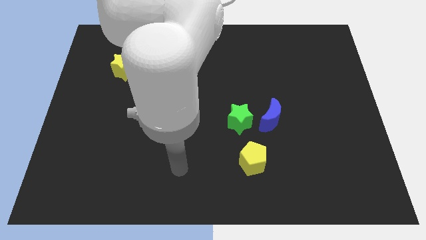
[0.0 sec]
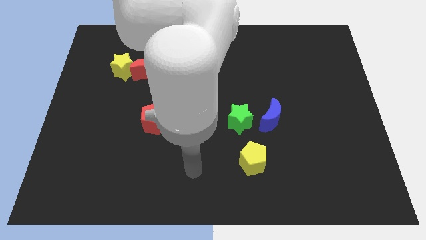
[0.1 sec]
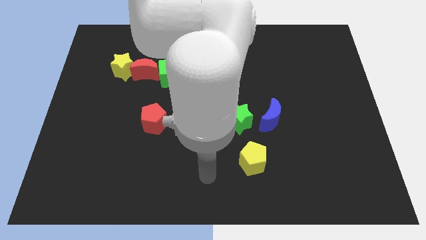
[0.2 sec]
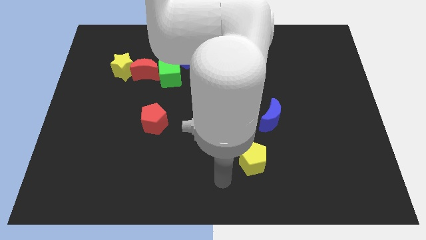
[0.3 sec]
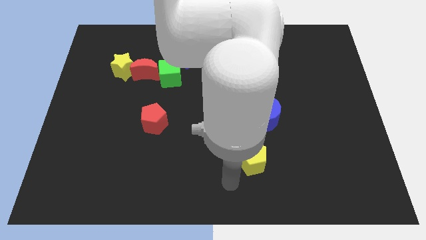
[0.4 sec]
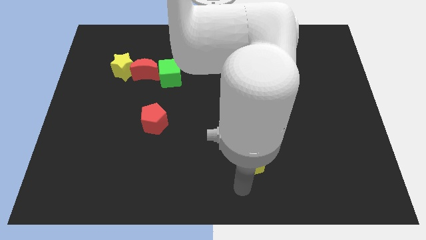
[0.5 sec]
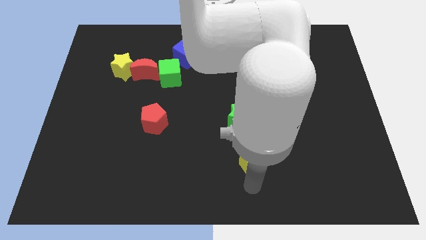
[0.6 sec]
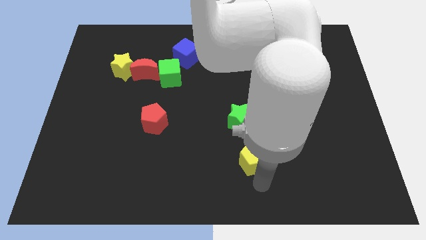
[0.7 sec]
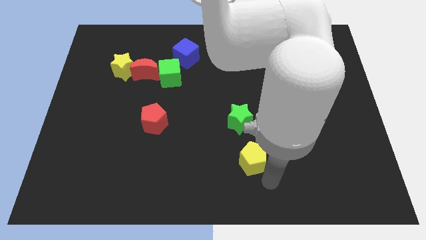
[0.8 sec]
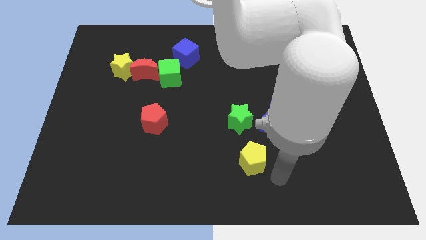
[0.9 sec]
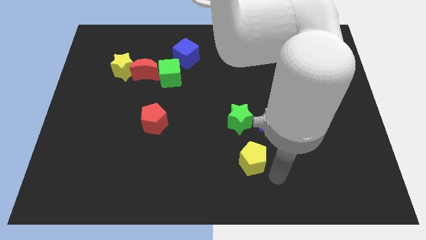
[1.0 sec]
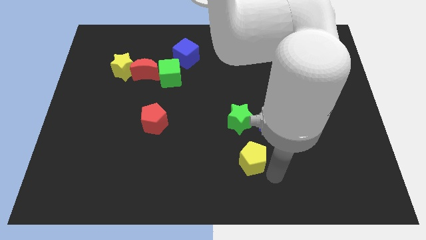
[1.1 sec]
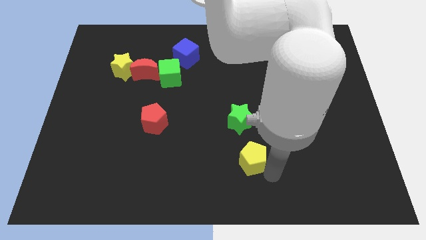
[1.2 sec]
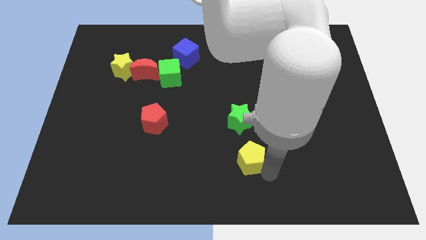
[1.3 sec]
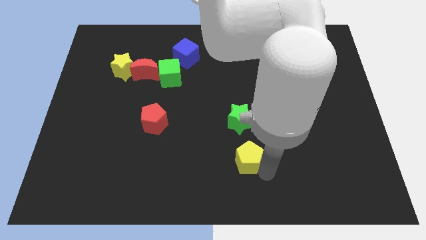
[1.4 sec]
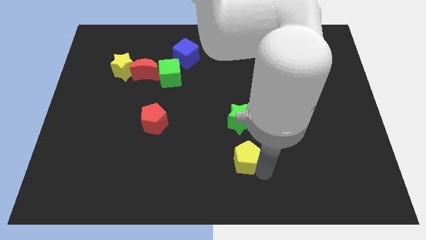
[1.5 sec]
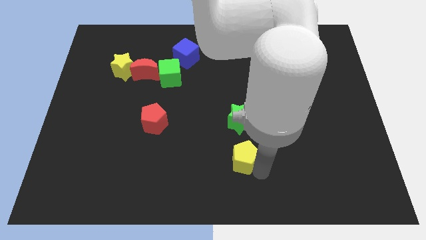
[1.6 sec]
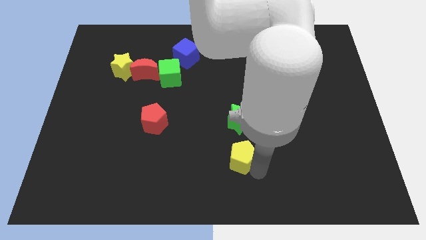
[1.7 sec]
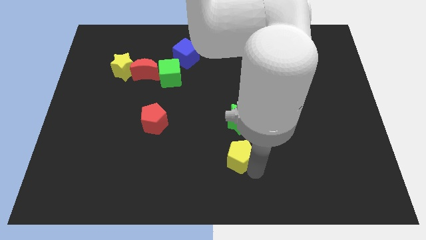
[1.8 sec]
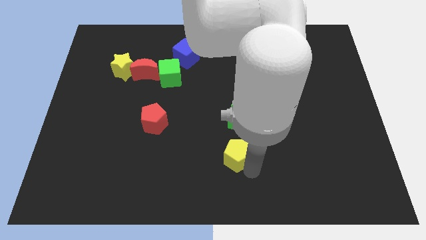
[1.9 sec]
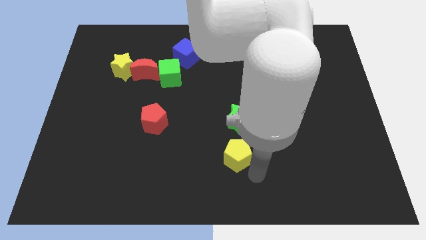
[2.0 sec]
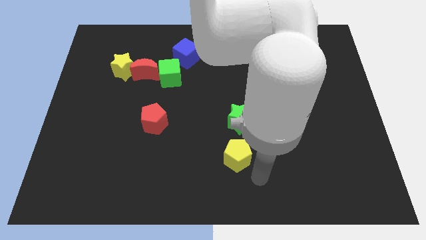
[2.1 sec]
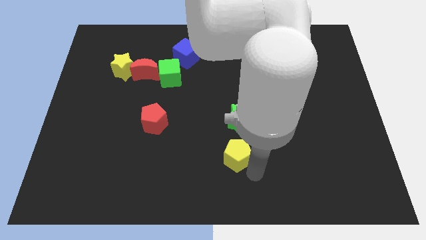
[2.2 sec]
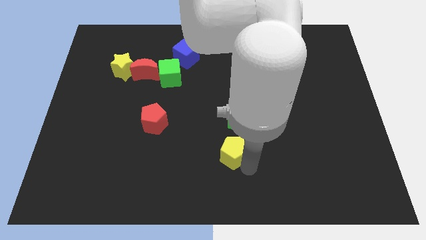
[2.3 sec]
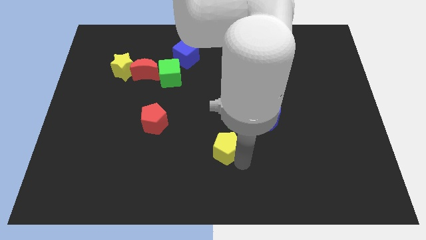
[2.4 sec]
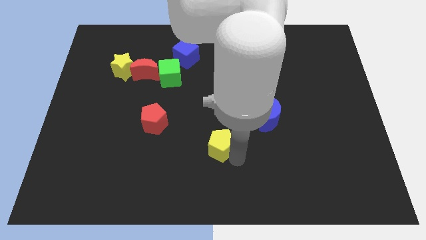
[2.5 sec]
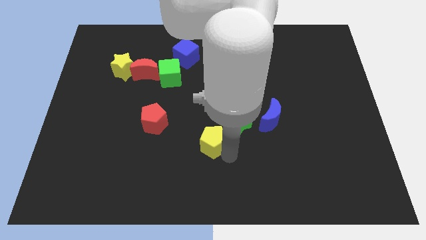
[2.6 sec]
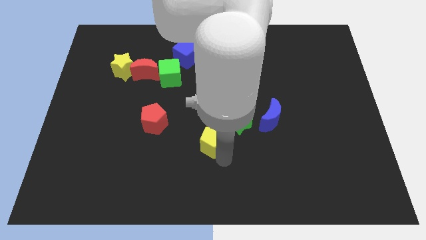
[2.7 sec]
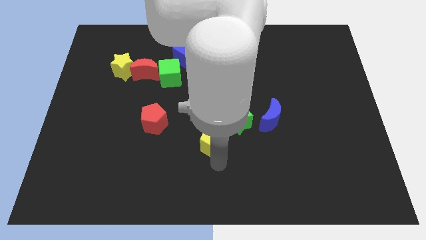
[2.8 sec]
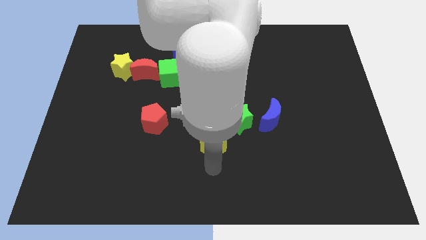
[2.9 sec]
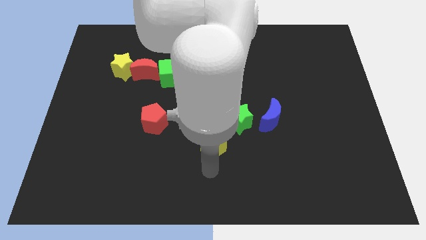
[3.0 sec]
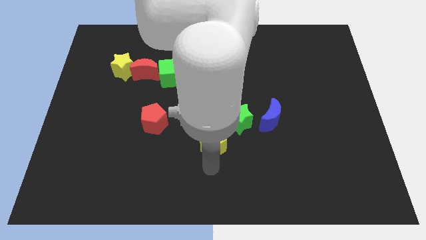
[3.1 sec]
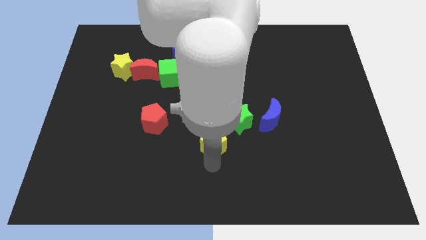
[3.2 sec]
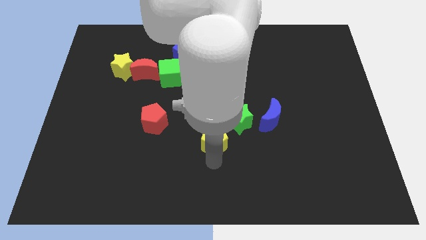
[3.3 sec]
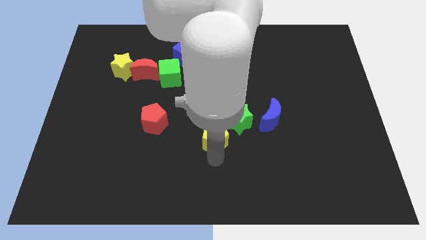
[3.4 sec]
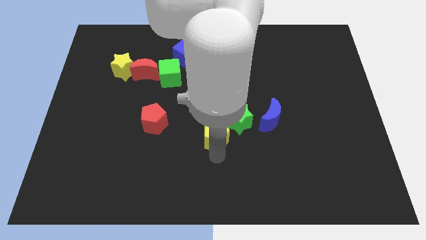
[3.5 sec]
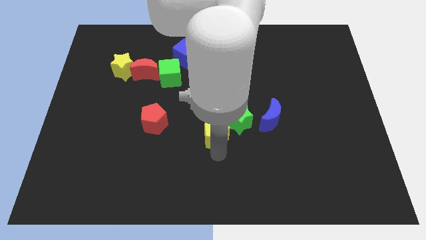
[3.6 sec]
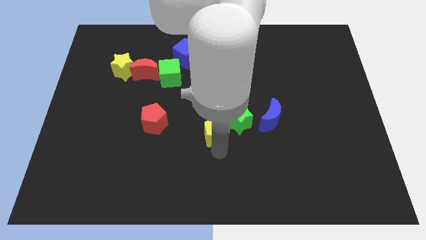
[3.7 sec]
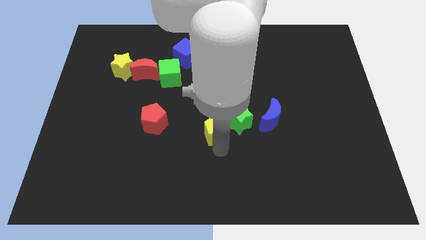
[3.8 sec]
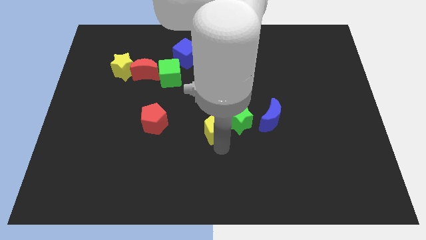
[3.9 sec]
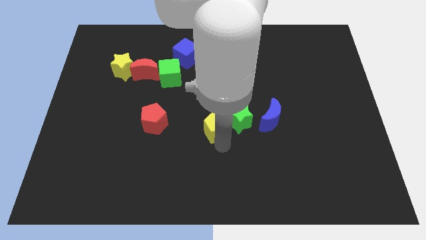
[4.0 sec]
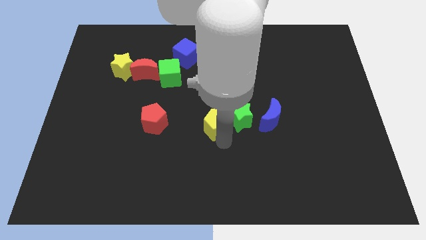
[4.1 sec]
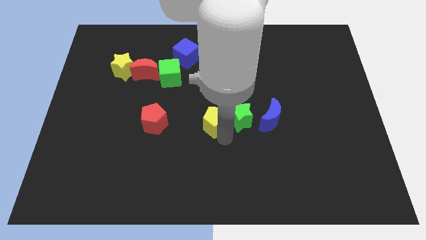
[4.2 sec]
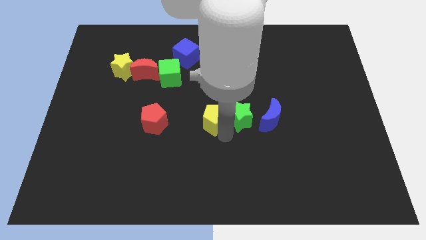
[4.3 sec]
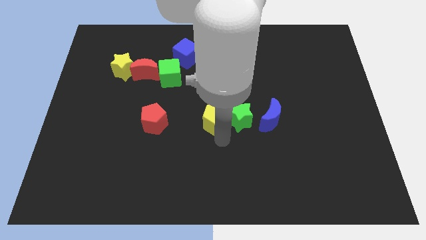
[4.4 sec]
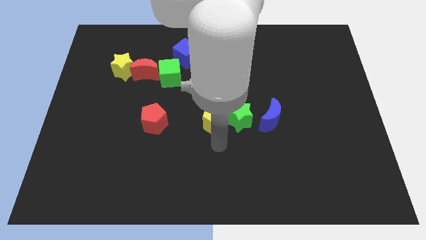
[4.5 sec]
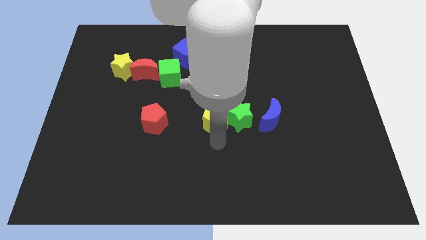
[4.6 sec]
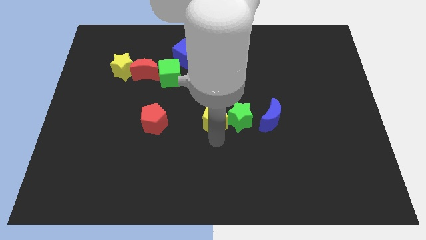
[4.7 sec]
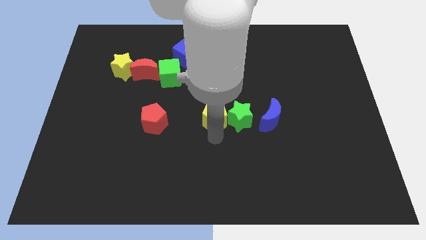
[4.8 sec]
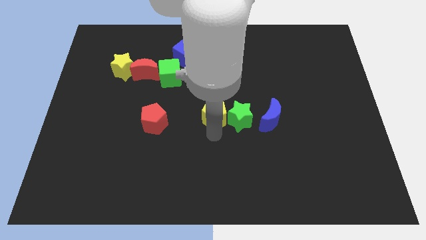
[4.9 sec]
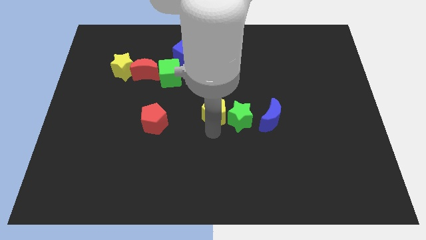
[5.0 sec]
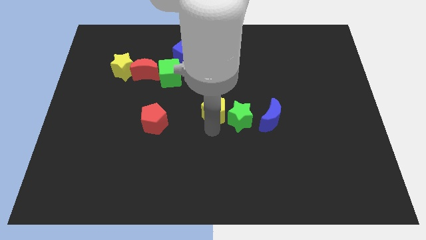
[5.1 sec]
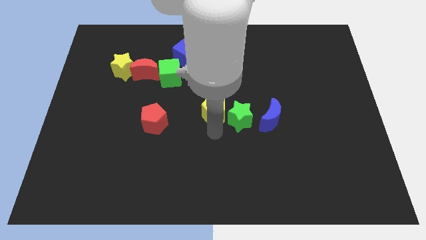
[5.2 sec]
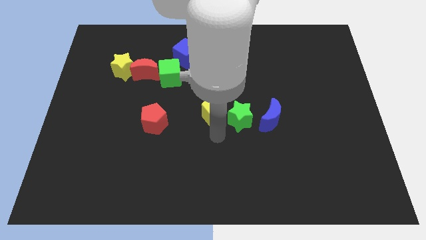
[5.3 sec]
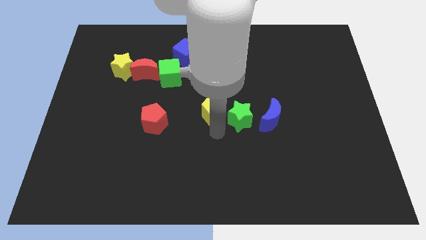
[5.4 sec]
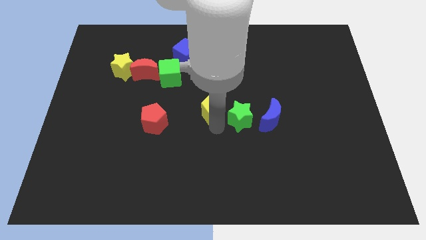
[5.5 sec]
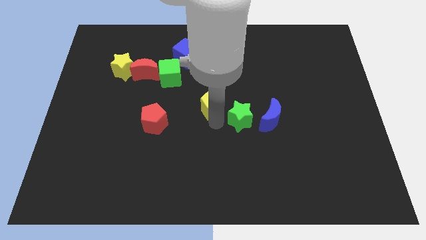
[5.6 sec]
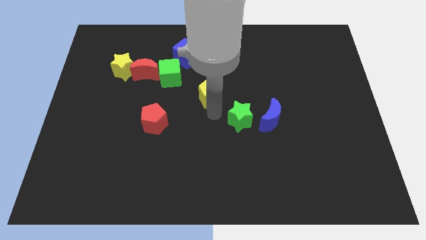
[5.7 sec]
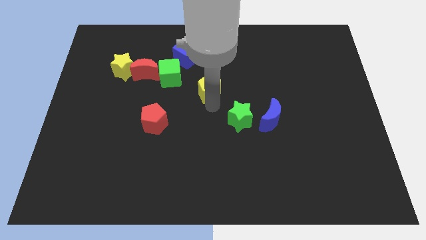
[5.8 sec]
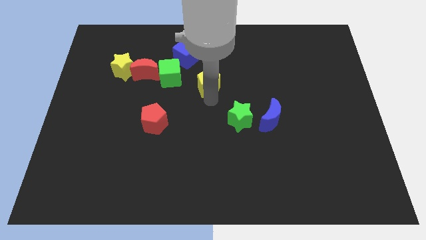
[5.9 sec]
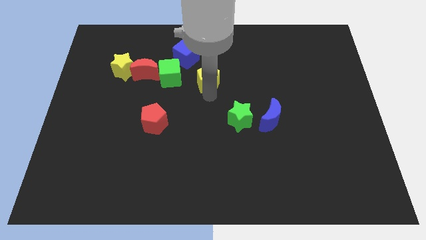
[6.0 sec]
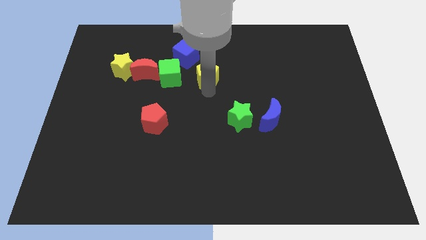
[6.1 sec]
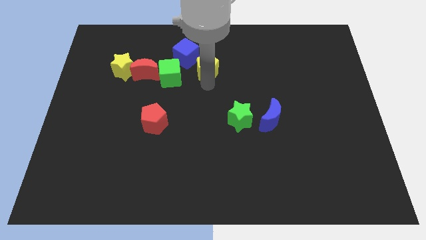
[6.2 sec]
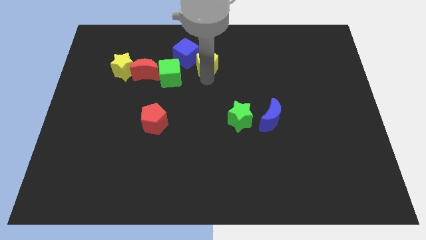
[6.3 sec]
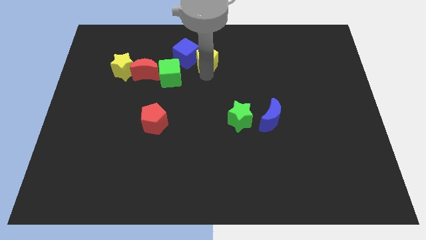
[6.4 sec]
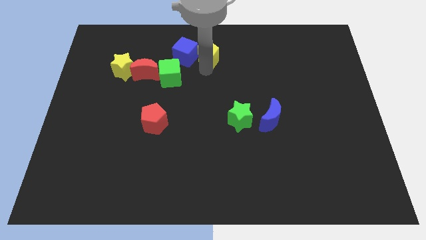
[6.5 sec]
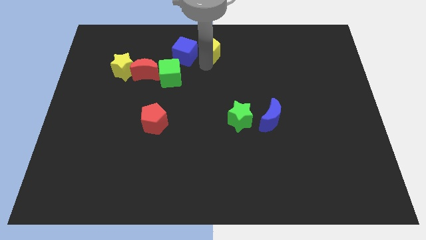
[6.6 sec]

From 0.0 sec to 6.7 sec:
move the yellow pentagon to the top side
